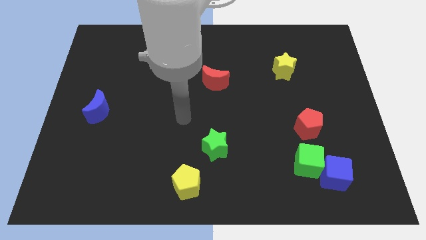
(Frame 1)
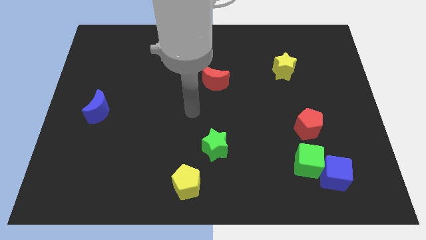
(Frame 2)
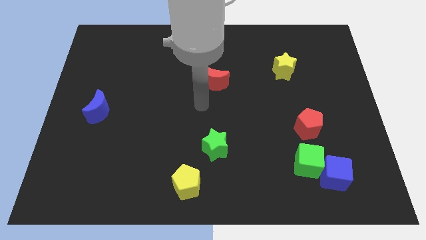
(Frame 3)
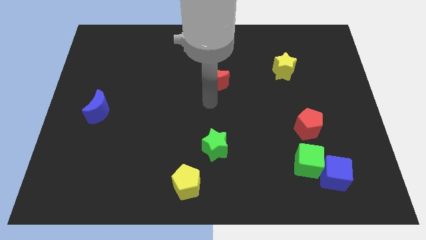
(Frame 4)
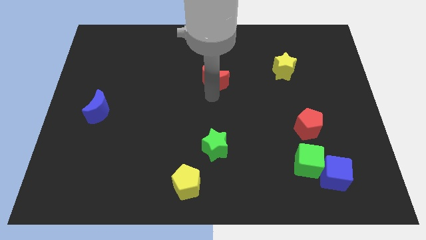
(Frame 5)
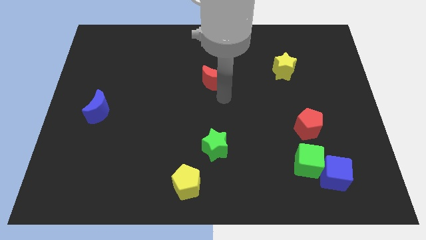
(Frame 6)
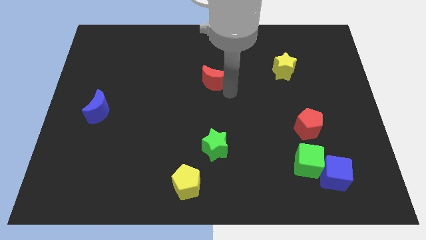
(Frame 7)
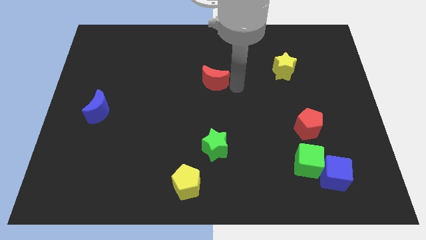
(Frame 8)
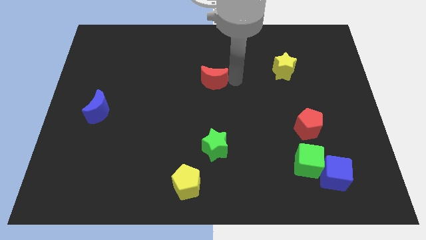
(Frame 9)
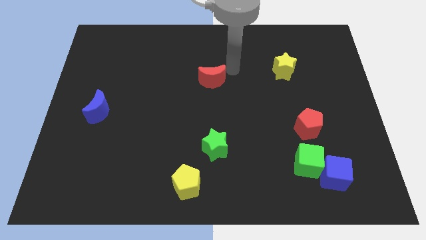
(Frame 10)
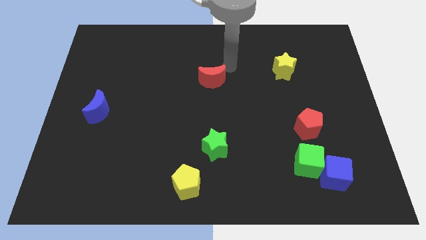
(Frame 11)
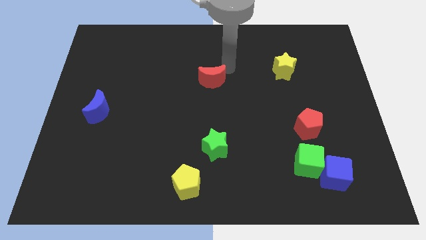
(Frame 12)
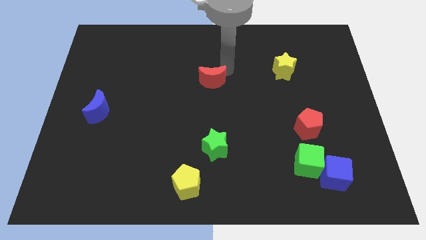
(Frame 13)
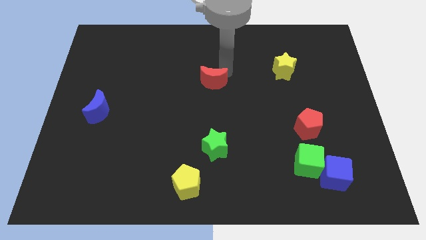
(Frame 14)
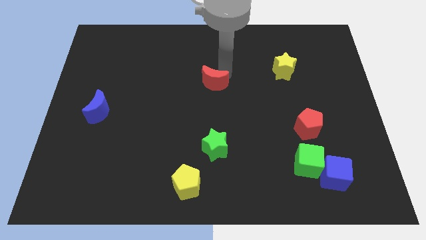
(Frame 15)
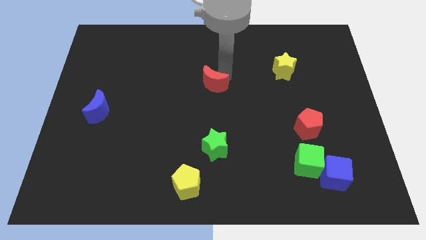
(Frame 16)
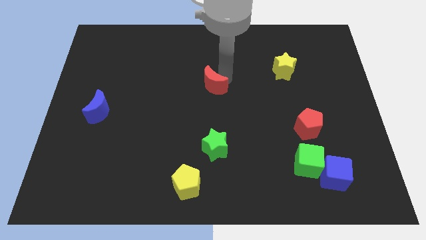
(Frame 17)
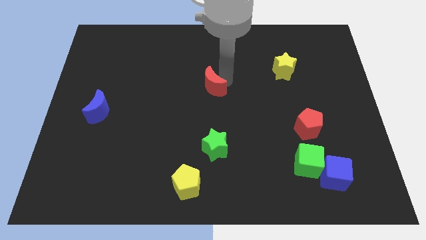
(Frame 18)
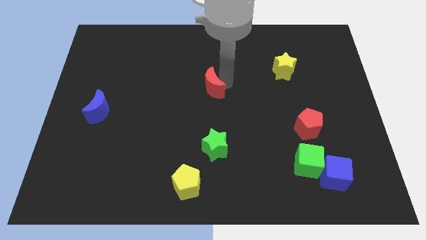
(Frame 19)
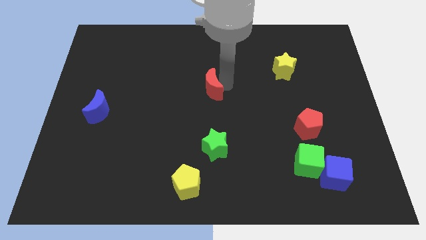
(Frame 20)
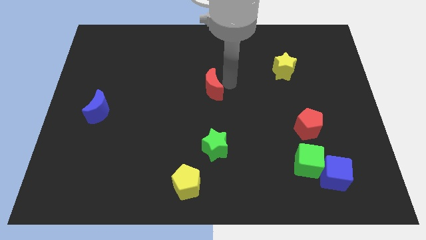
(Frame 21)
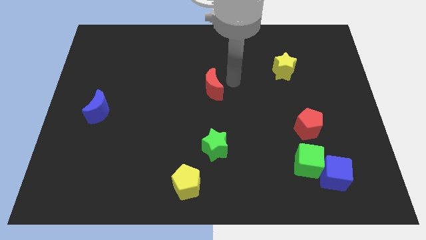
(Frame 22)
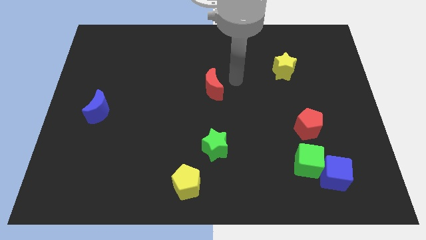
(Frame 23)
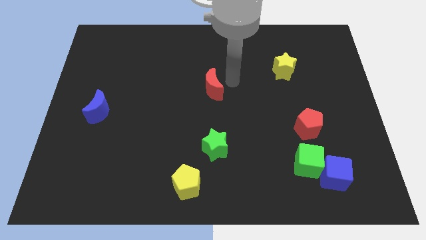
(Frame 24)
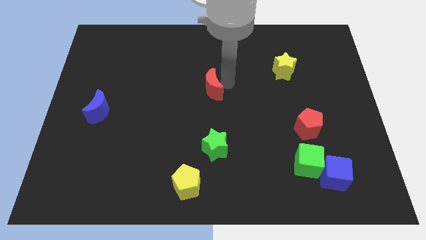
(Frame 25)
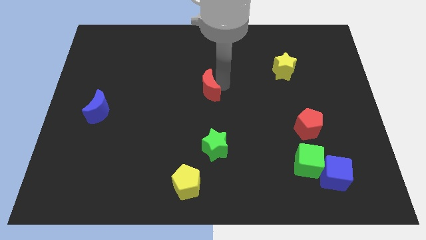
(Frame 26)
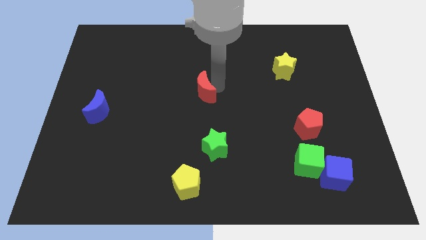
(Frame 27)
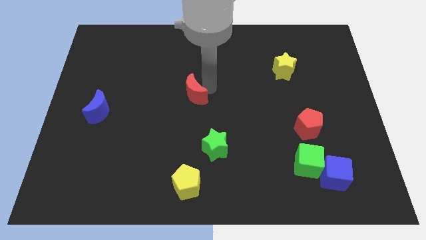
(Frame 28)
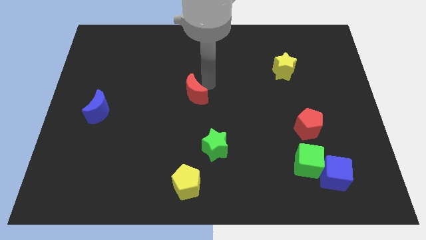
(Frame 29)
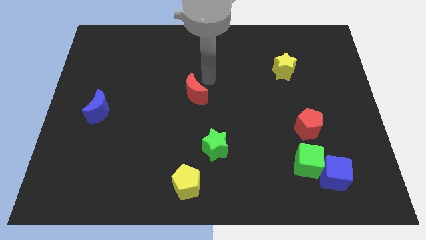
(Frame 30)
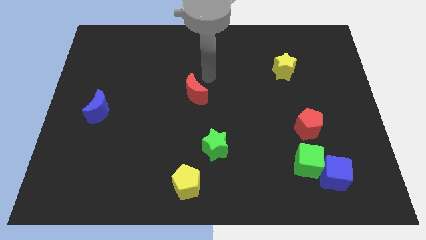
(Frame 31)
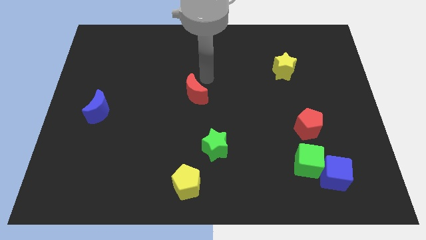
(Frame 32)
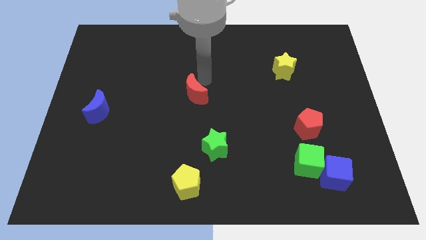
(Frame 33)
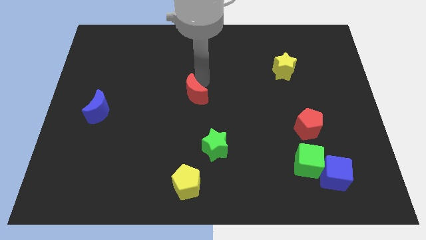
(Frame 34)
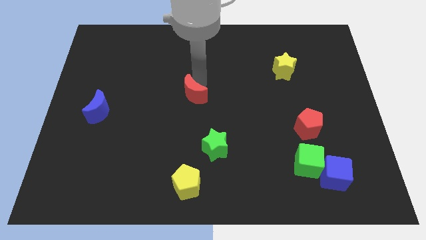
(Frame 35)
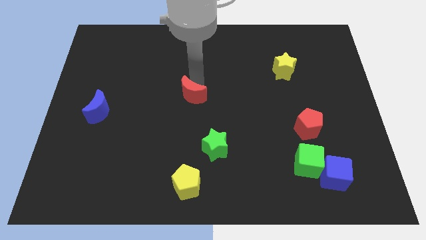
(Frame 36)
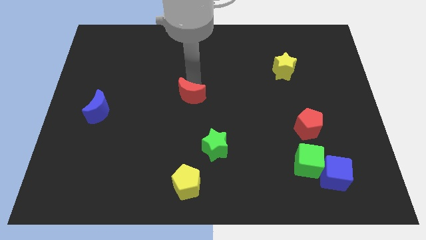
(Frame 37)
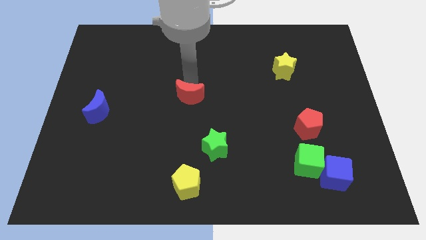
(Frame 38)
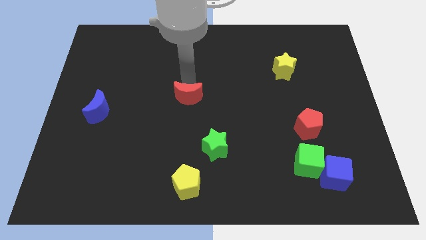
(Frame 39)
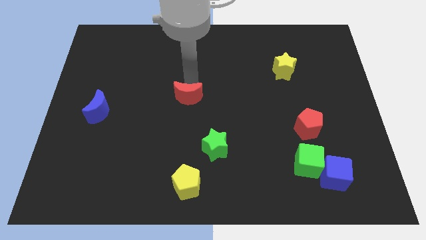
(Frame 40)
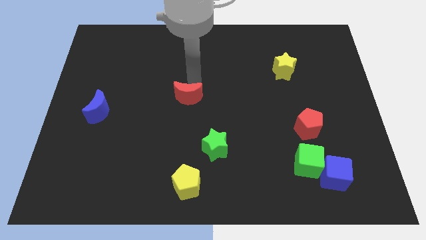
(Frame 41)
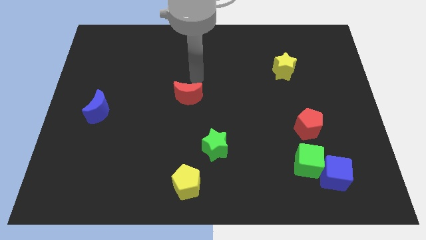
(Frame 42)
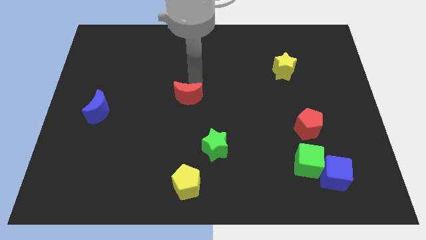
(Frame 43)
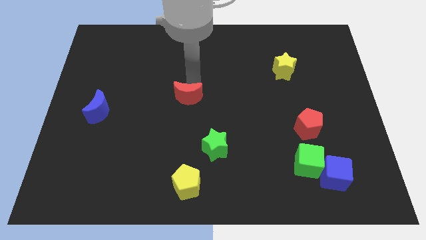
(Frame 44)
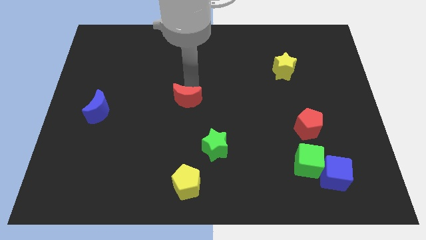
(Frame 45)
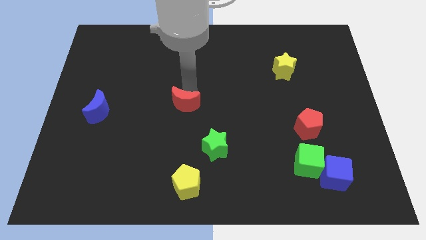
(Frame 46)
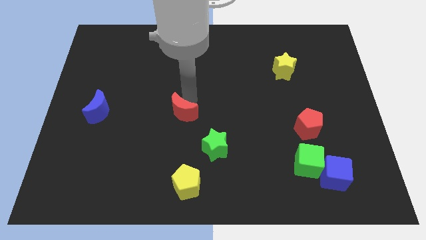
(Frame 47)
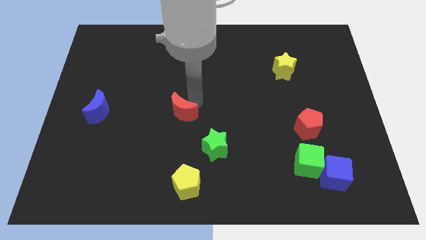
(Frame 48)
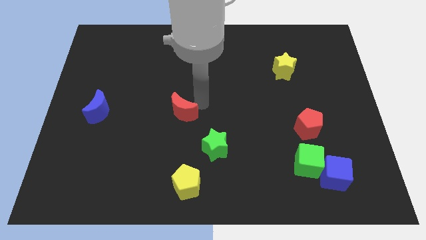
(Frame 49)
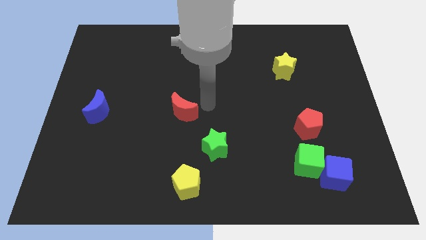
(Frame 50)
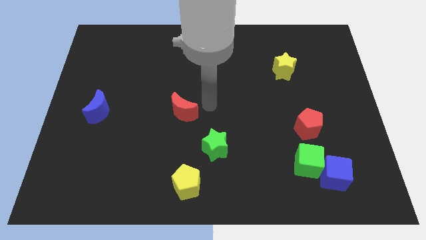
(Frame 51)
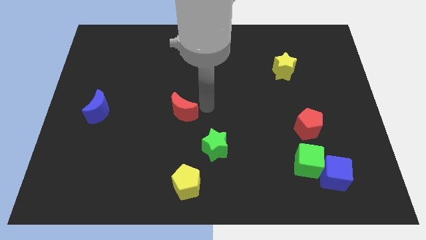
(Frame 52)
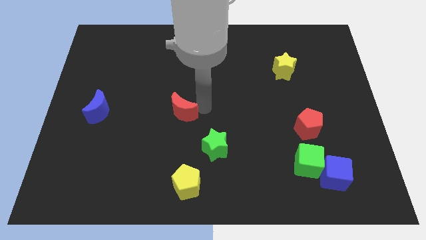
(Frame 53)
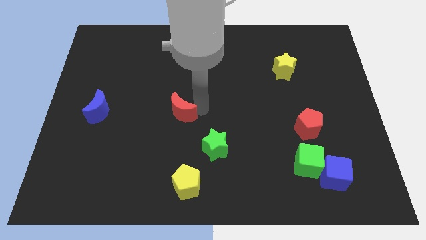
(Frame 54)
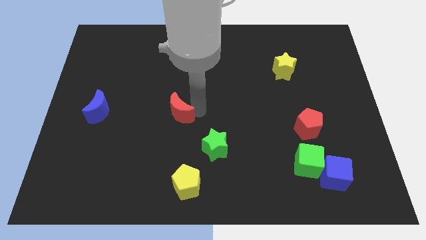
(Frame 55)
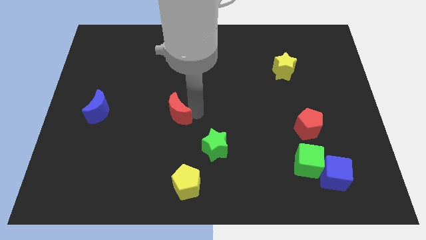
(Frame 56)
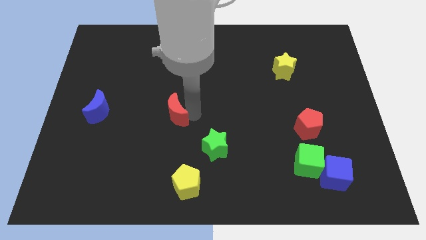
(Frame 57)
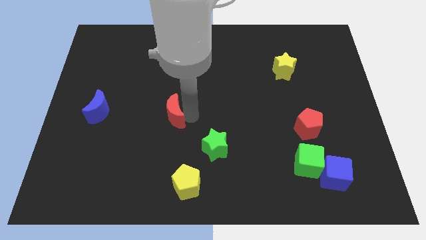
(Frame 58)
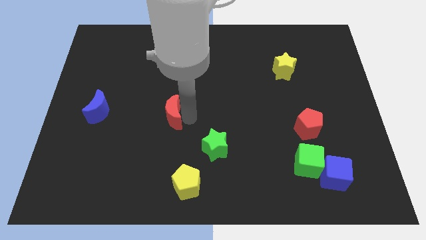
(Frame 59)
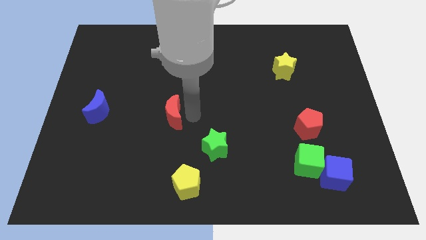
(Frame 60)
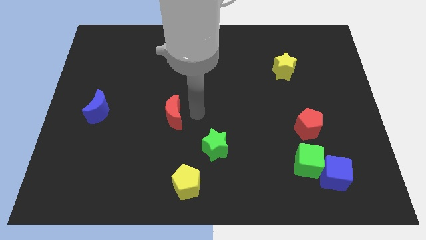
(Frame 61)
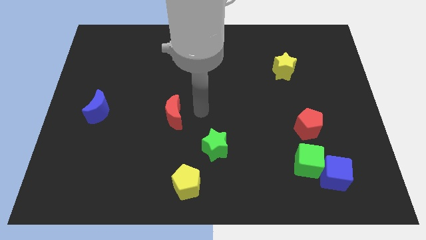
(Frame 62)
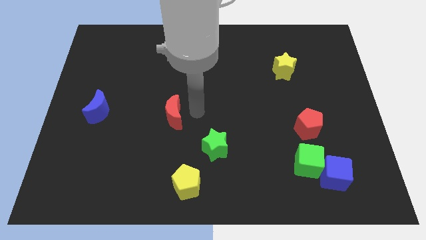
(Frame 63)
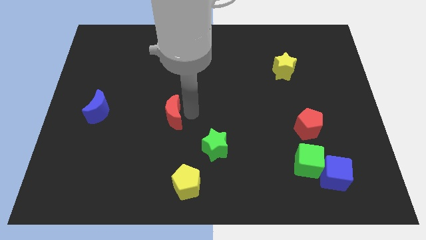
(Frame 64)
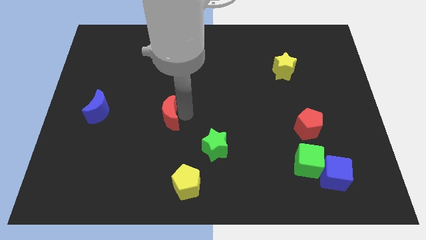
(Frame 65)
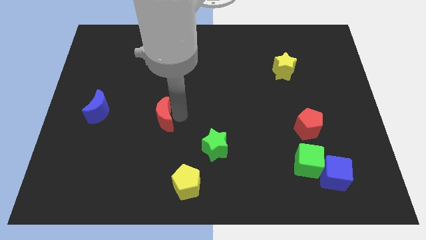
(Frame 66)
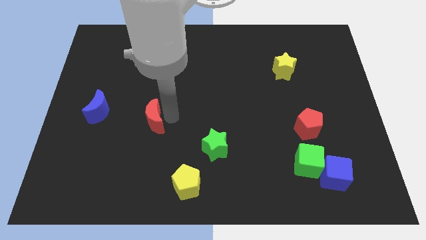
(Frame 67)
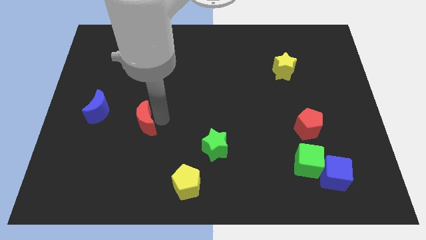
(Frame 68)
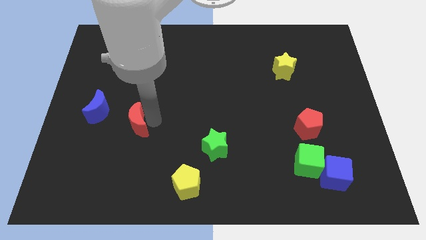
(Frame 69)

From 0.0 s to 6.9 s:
slide the red moon to the bottom right side of the blue moon

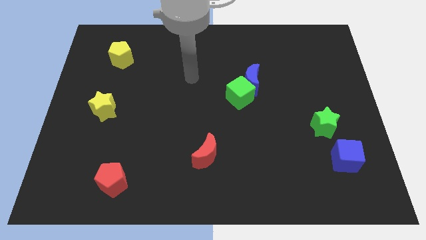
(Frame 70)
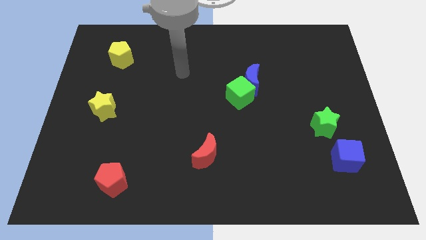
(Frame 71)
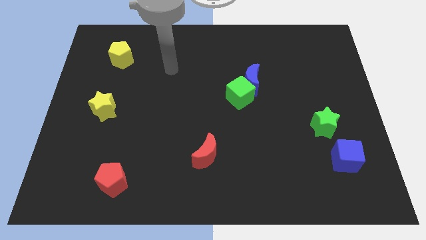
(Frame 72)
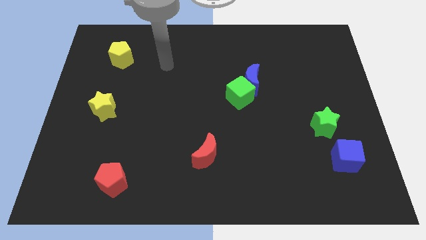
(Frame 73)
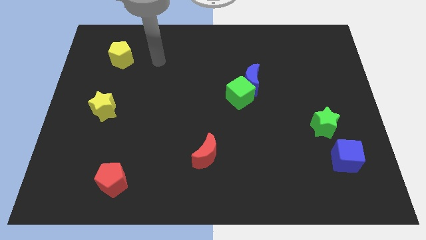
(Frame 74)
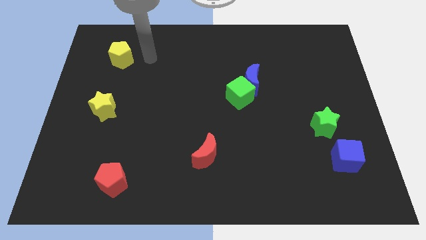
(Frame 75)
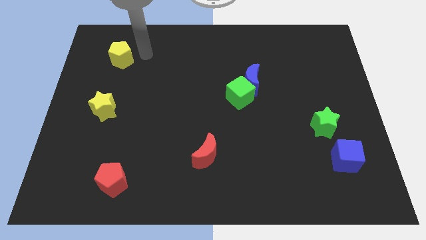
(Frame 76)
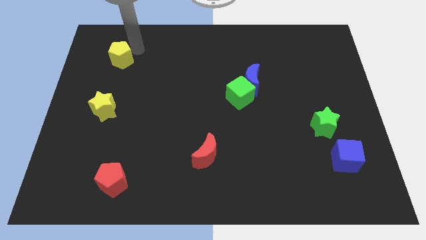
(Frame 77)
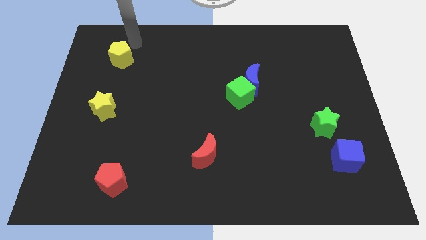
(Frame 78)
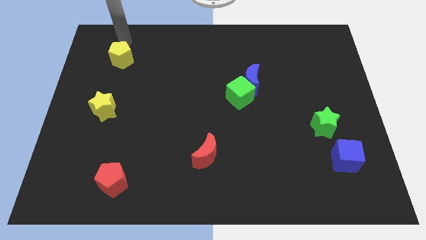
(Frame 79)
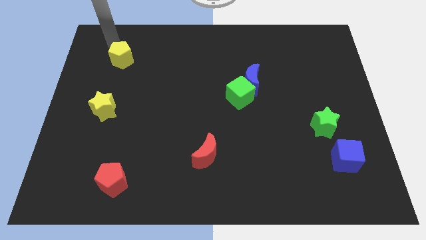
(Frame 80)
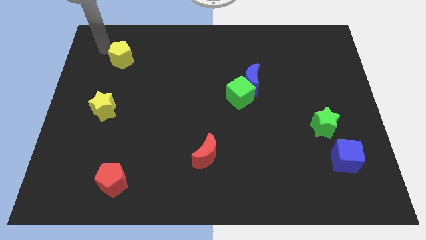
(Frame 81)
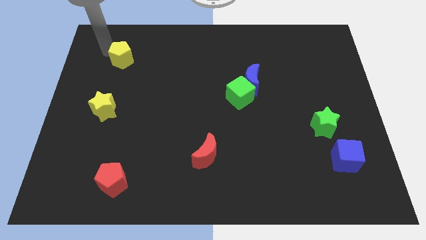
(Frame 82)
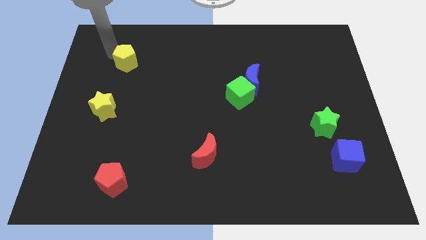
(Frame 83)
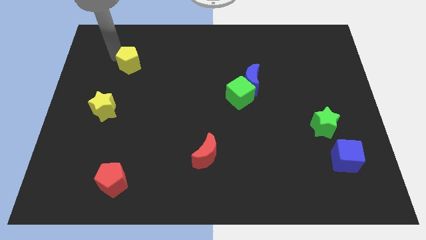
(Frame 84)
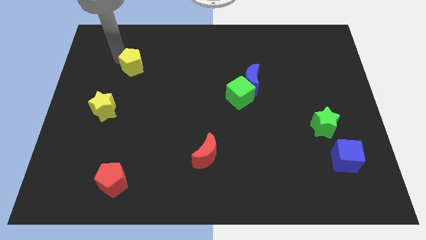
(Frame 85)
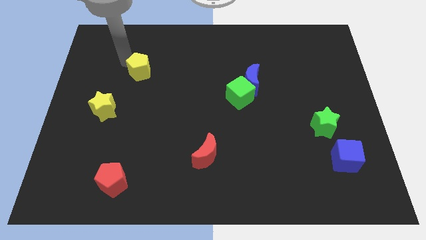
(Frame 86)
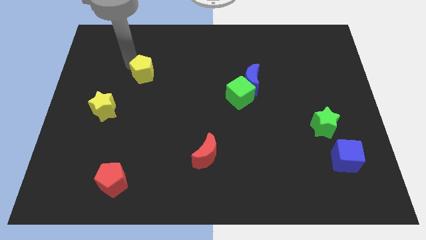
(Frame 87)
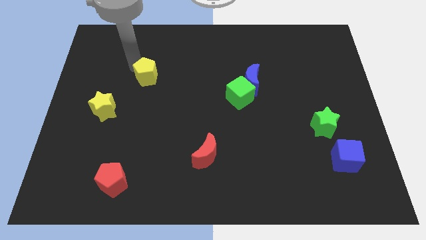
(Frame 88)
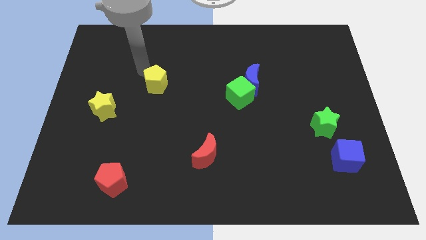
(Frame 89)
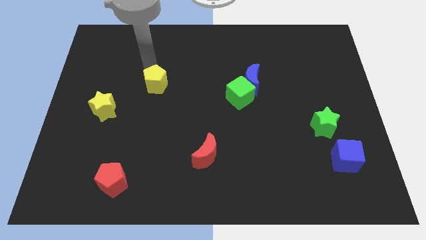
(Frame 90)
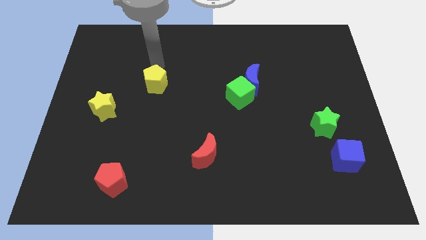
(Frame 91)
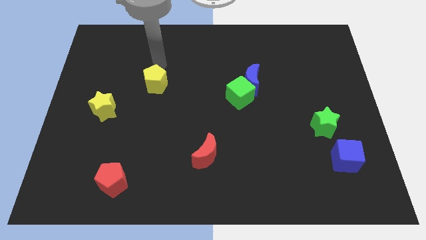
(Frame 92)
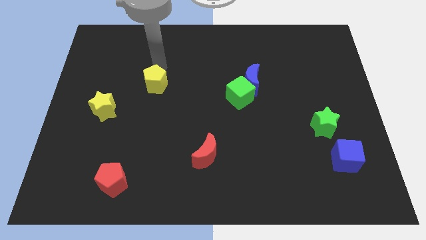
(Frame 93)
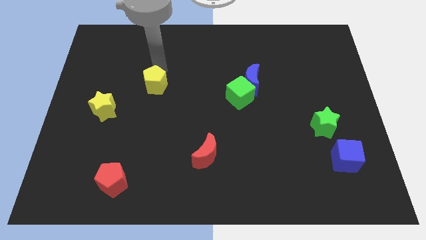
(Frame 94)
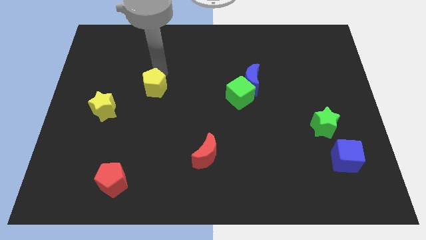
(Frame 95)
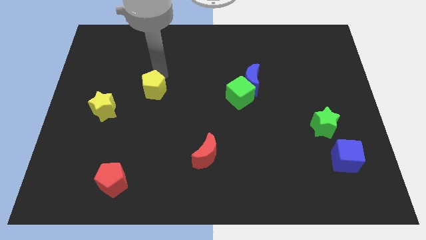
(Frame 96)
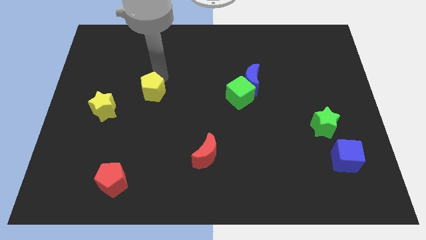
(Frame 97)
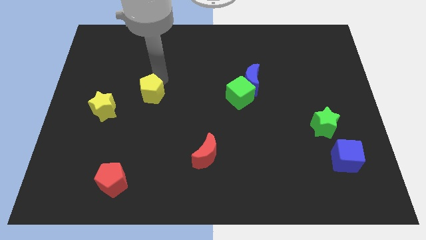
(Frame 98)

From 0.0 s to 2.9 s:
move the yellow pentagon to the right side of the yellow star
